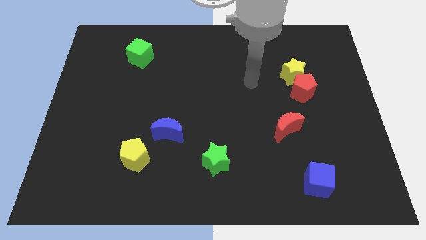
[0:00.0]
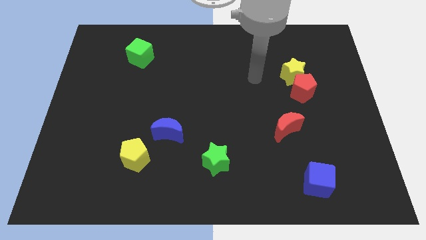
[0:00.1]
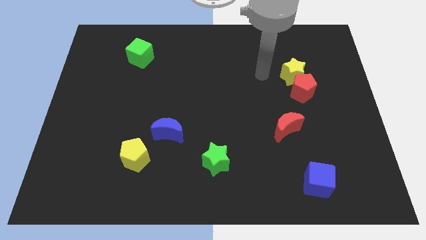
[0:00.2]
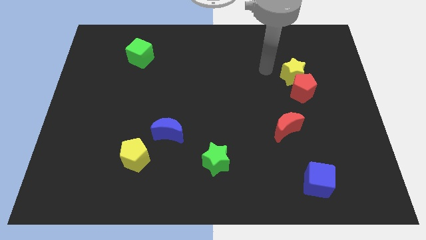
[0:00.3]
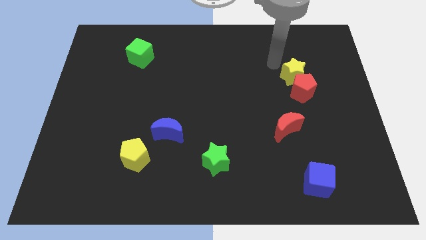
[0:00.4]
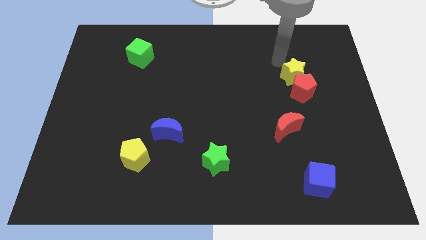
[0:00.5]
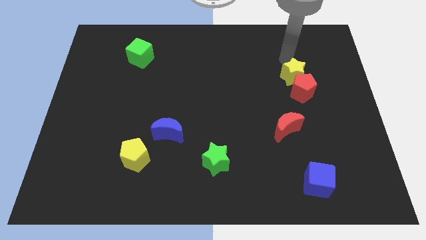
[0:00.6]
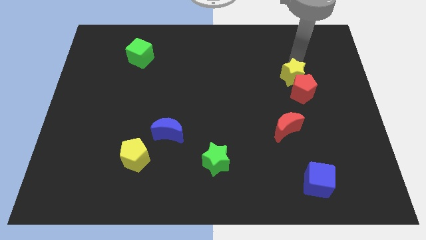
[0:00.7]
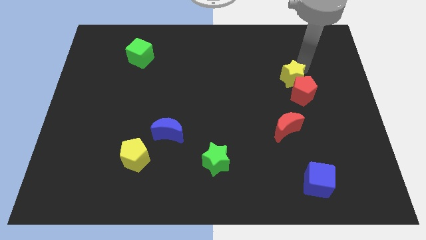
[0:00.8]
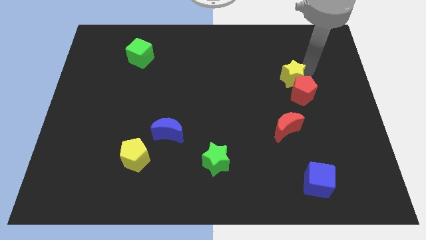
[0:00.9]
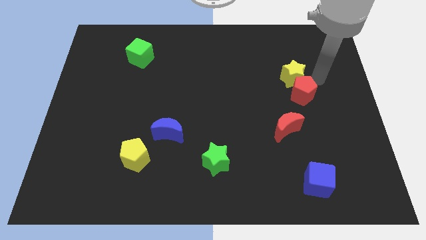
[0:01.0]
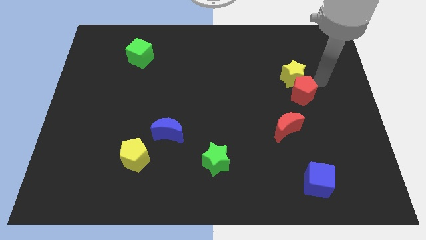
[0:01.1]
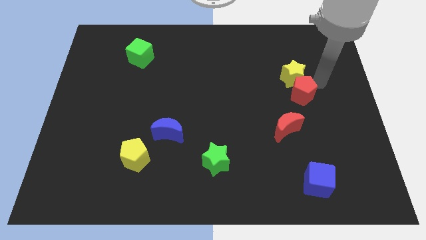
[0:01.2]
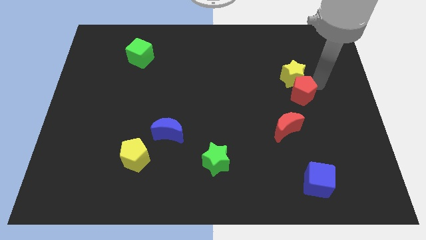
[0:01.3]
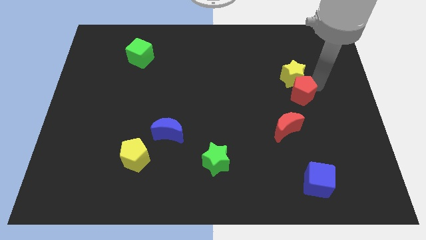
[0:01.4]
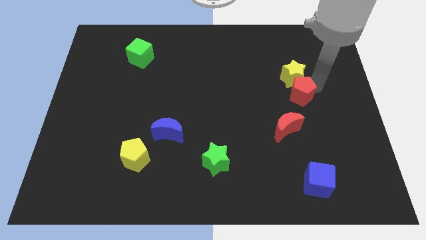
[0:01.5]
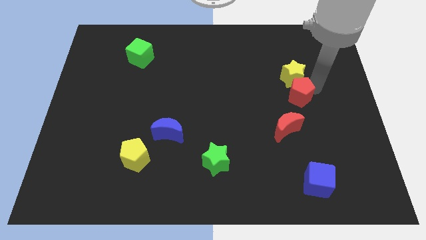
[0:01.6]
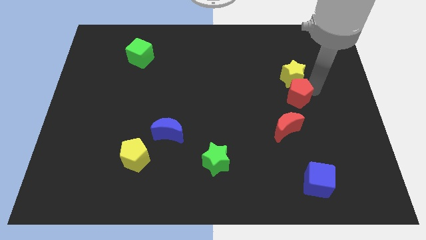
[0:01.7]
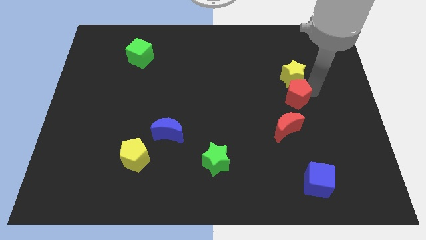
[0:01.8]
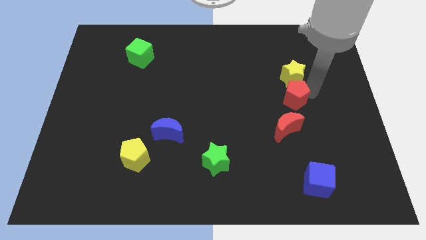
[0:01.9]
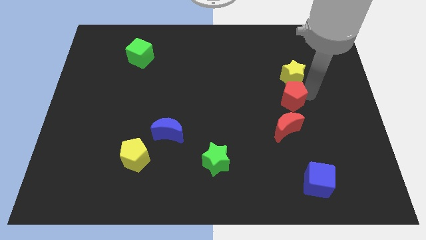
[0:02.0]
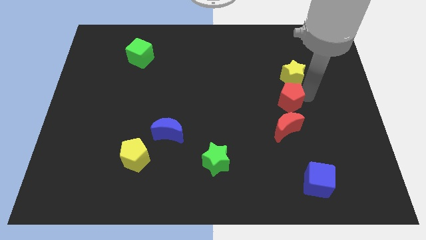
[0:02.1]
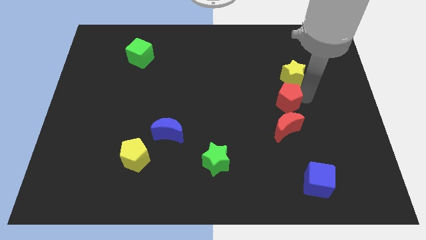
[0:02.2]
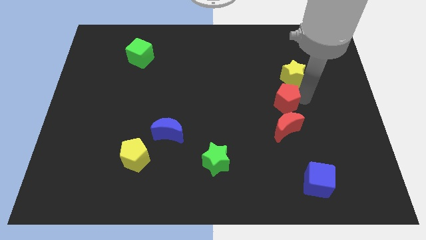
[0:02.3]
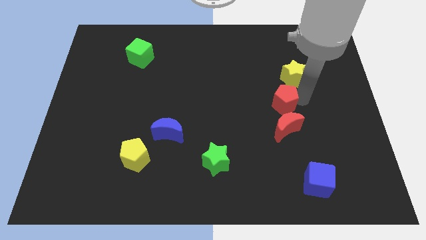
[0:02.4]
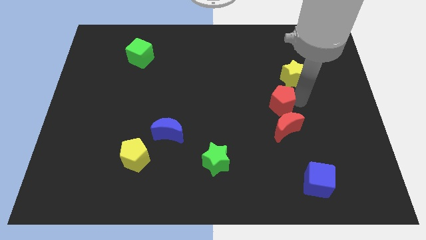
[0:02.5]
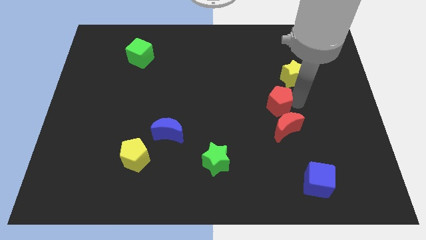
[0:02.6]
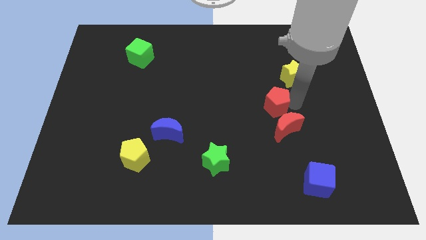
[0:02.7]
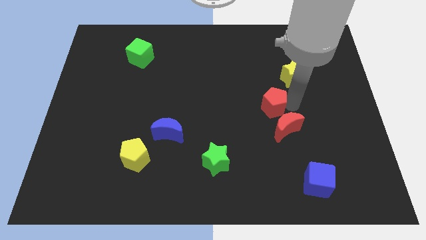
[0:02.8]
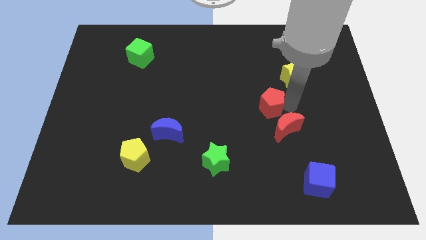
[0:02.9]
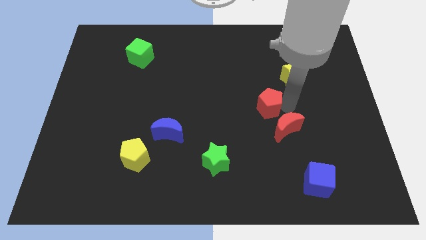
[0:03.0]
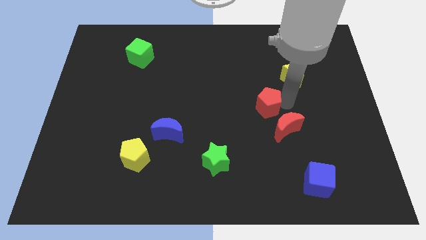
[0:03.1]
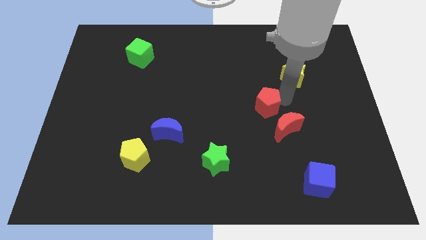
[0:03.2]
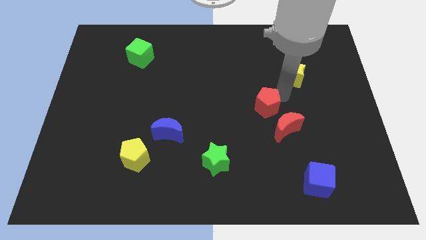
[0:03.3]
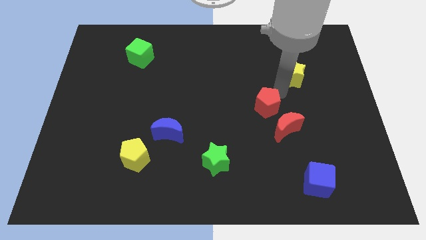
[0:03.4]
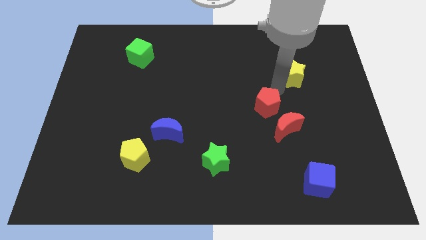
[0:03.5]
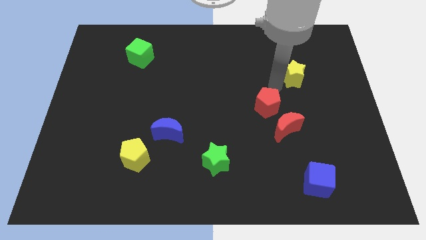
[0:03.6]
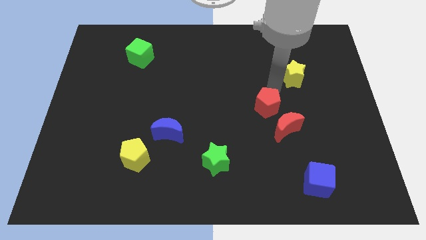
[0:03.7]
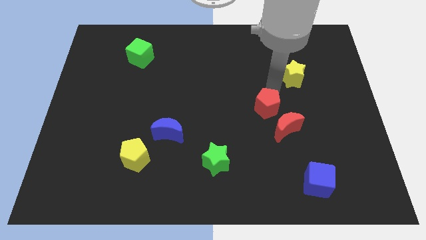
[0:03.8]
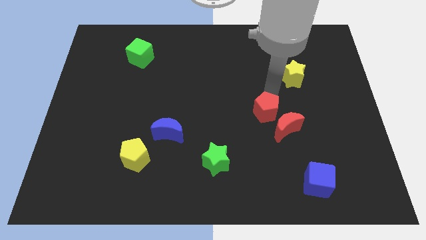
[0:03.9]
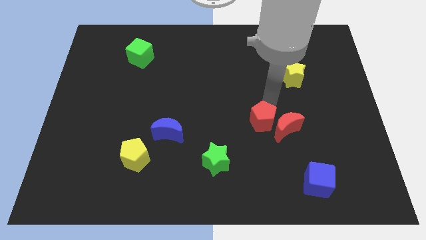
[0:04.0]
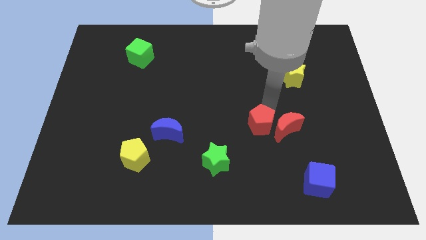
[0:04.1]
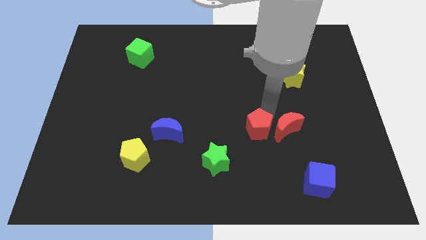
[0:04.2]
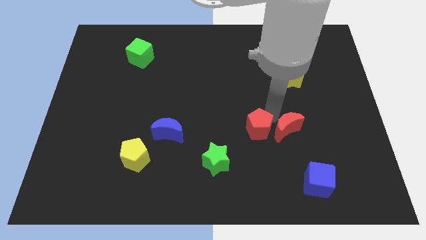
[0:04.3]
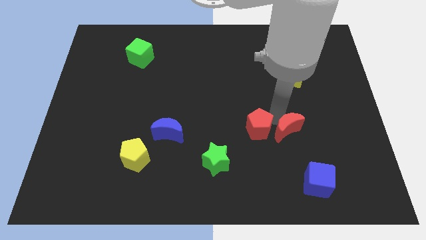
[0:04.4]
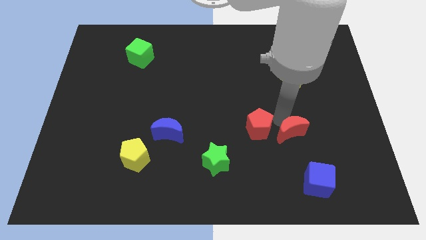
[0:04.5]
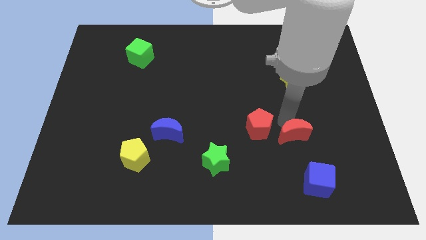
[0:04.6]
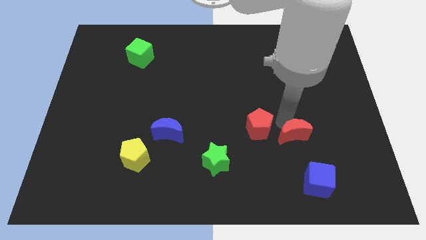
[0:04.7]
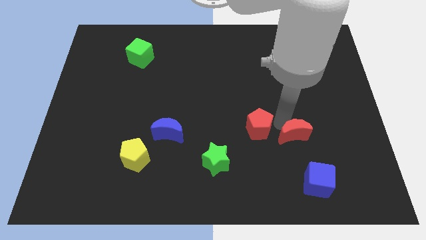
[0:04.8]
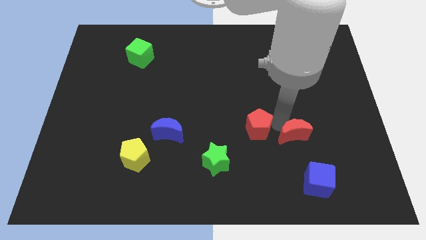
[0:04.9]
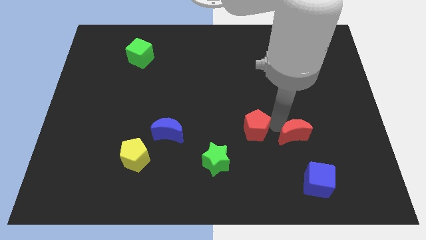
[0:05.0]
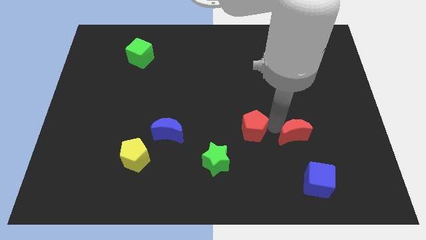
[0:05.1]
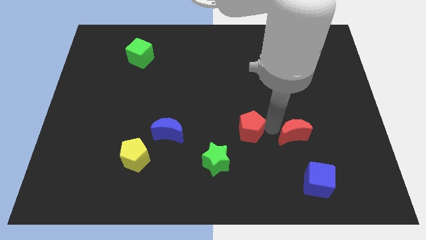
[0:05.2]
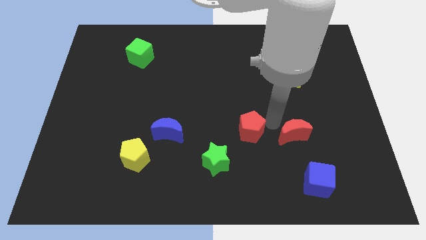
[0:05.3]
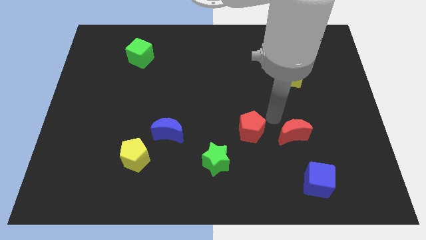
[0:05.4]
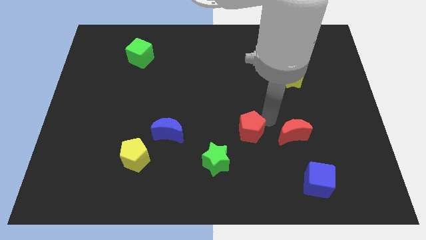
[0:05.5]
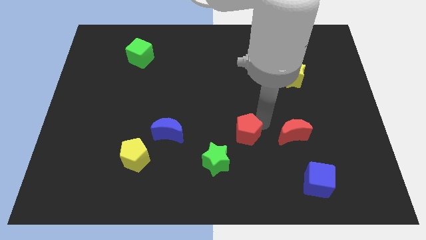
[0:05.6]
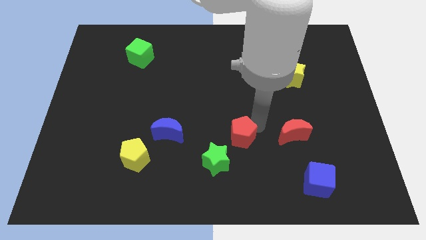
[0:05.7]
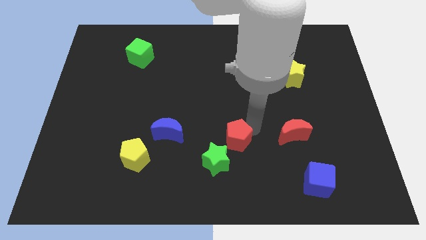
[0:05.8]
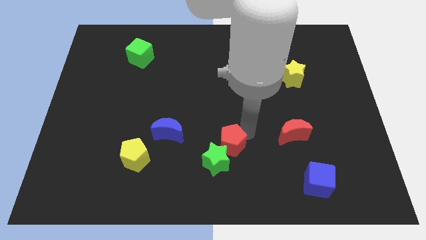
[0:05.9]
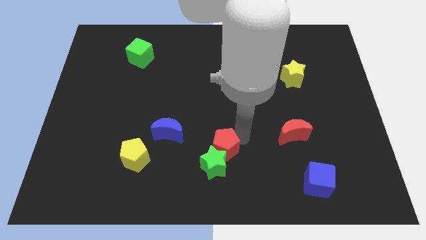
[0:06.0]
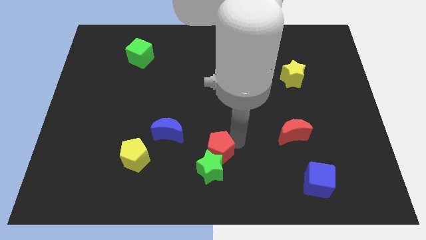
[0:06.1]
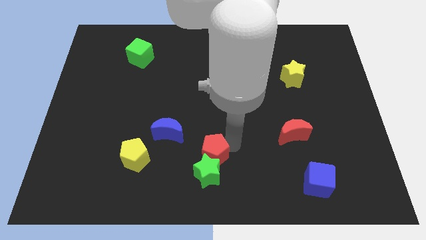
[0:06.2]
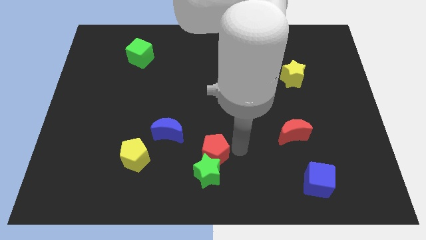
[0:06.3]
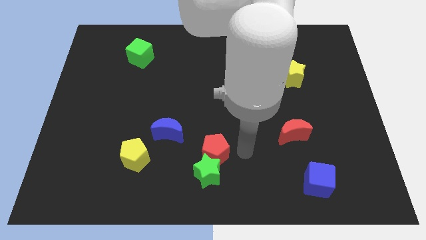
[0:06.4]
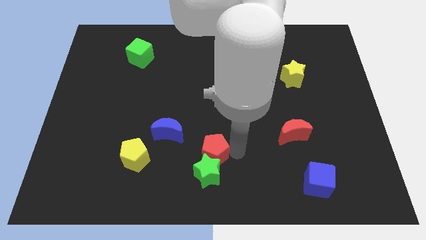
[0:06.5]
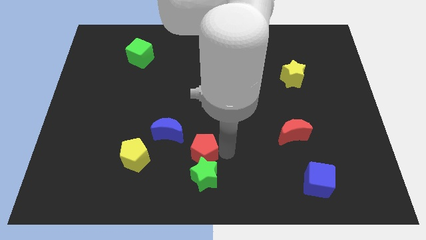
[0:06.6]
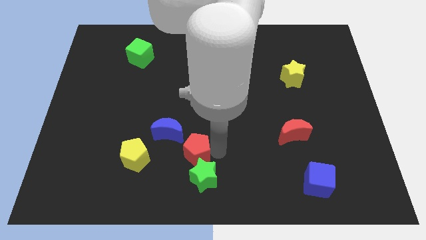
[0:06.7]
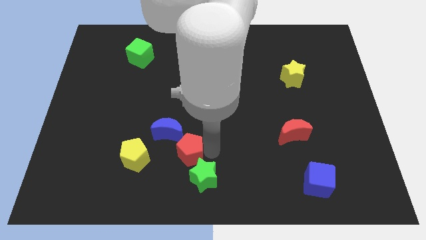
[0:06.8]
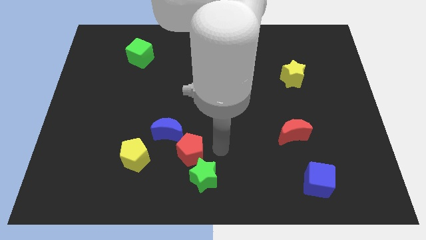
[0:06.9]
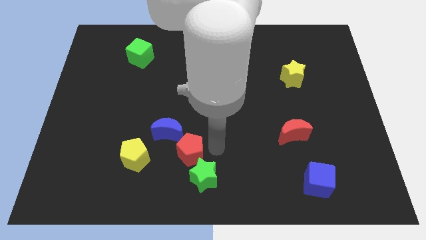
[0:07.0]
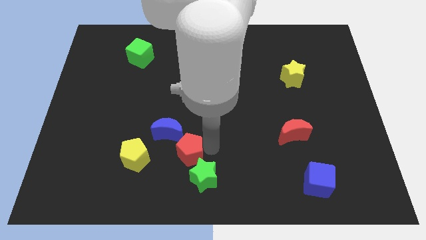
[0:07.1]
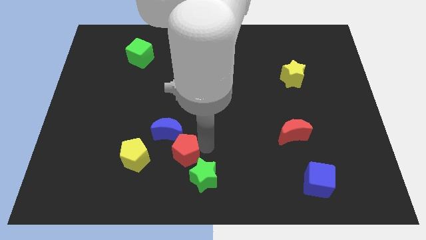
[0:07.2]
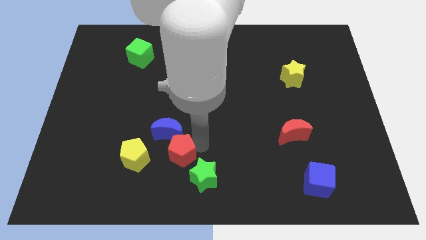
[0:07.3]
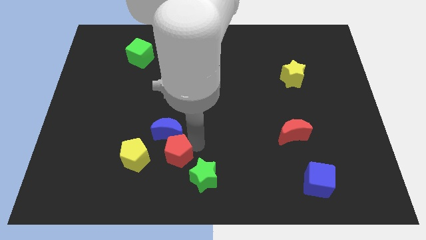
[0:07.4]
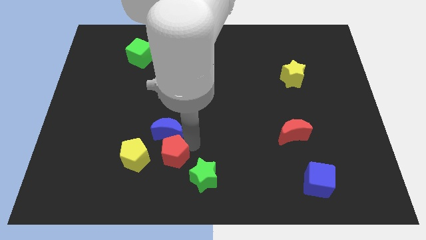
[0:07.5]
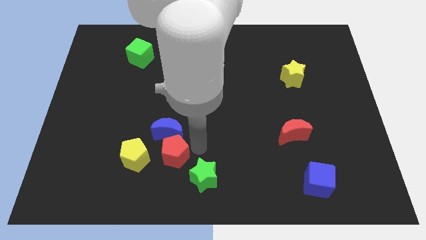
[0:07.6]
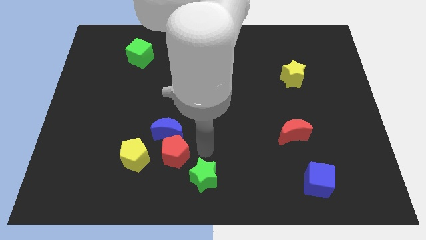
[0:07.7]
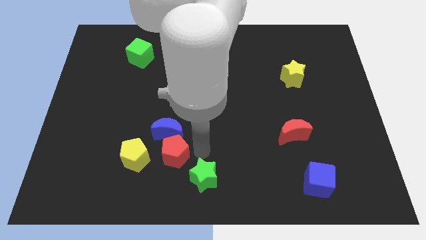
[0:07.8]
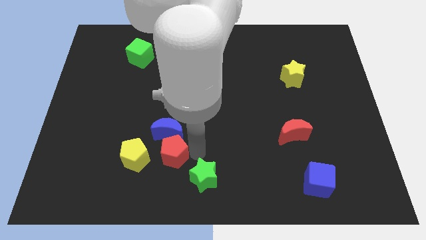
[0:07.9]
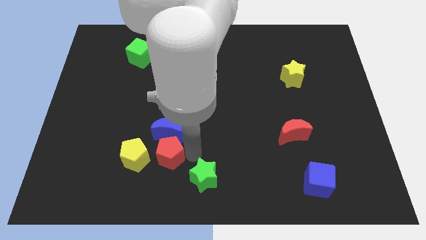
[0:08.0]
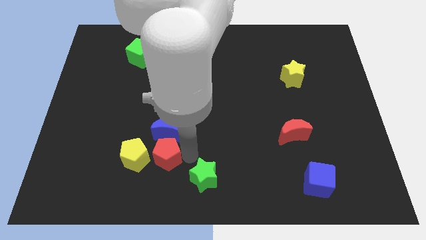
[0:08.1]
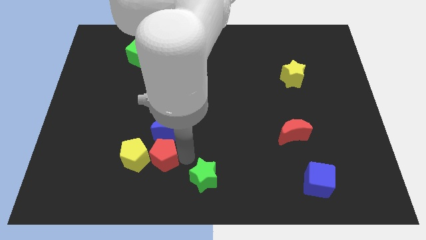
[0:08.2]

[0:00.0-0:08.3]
move the red pentagon to the yellow pentagon
